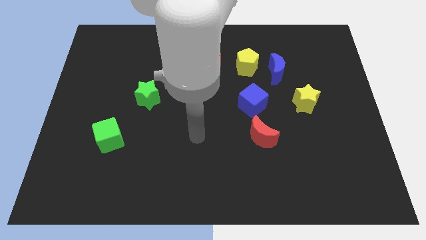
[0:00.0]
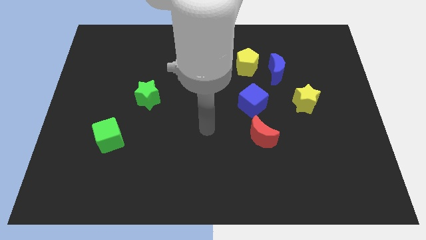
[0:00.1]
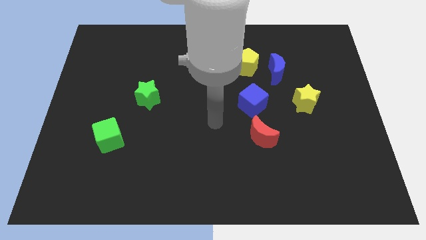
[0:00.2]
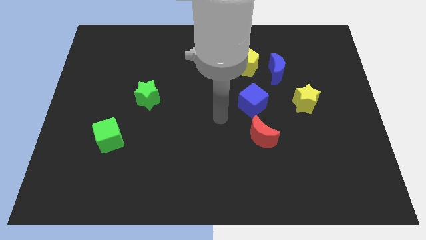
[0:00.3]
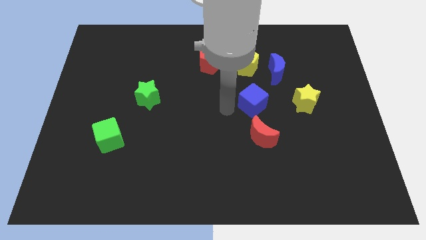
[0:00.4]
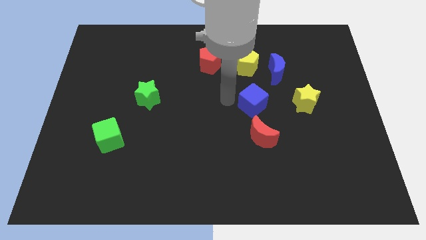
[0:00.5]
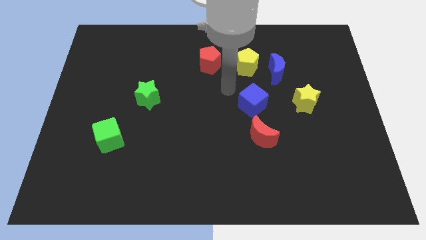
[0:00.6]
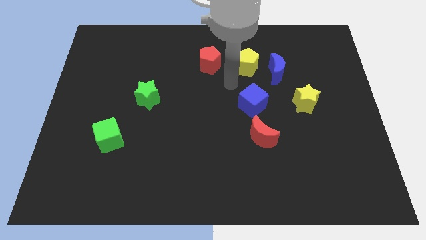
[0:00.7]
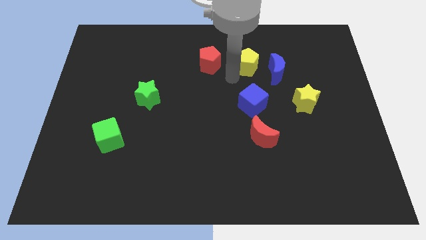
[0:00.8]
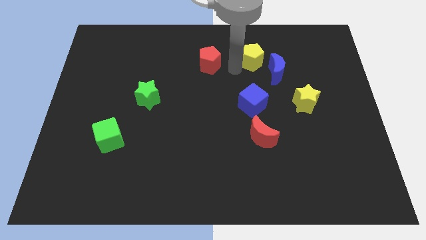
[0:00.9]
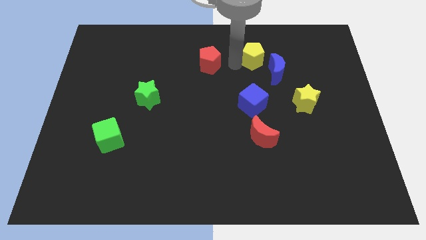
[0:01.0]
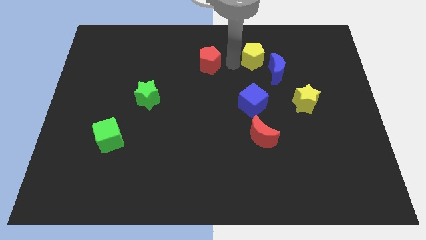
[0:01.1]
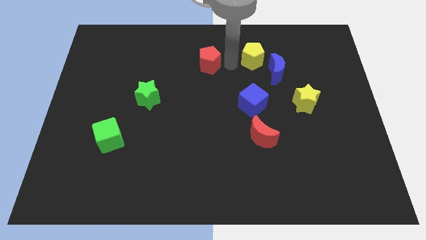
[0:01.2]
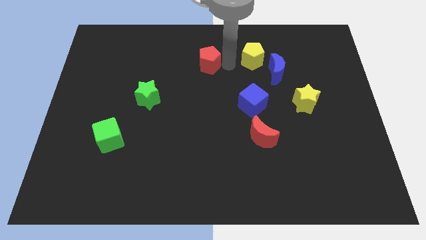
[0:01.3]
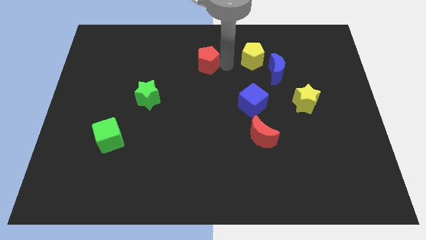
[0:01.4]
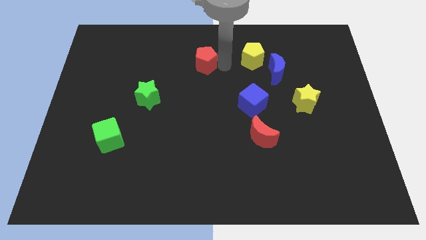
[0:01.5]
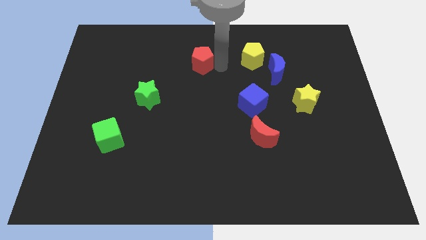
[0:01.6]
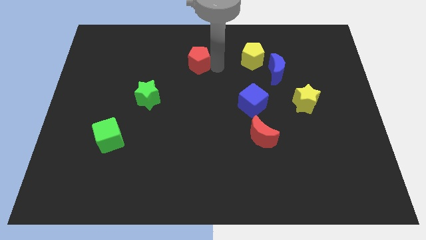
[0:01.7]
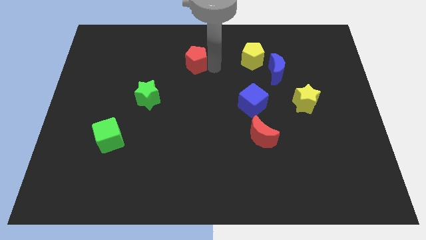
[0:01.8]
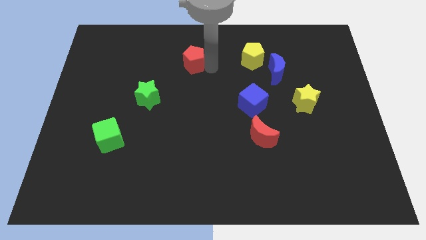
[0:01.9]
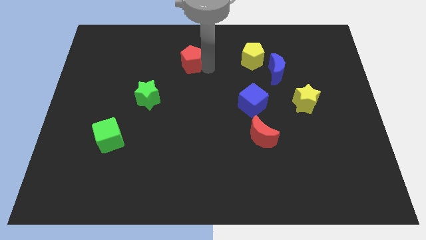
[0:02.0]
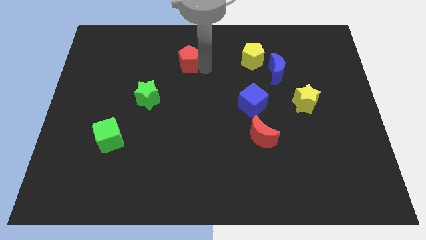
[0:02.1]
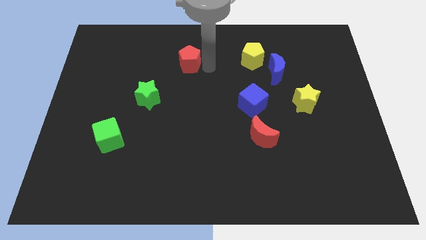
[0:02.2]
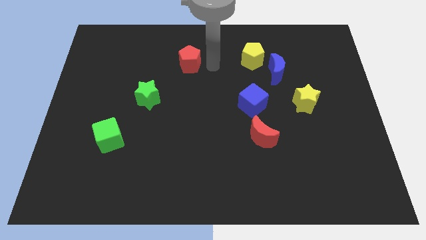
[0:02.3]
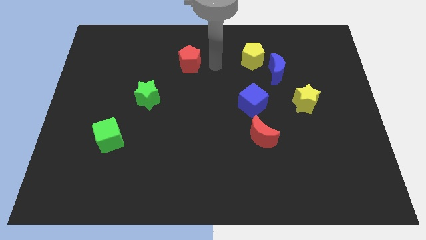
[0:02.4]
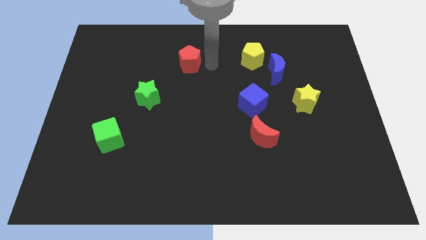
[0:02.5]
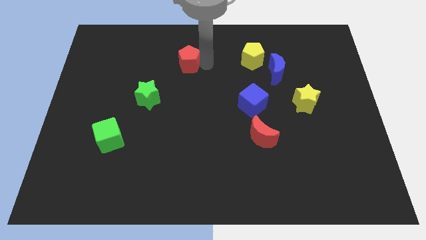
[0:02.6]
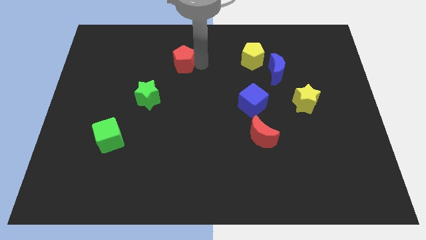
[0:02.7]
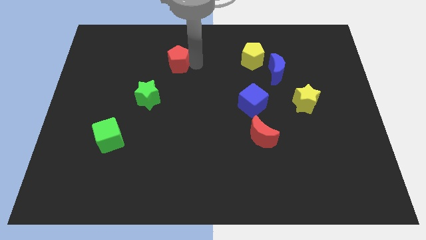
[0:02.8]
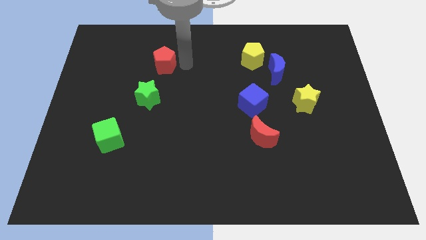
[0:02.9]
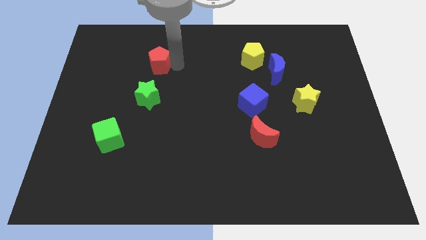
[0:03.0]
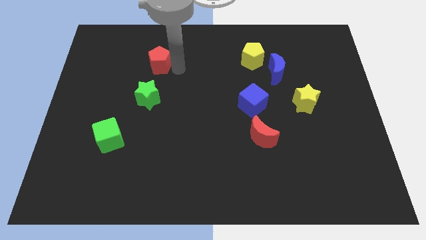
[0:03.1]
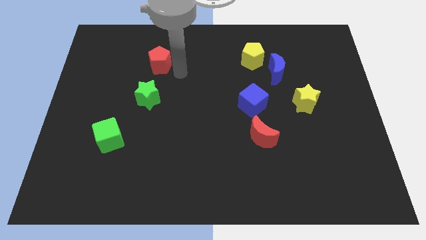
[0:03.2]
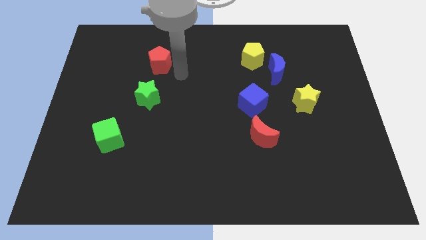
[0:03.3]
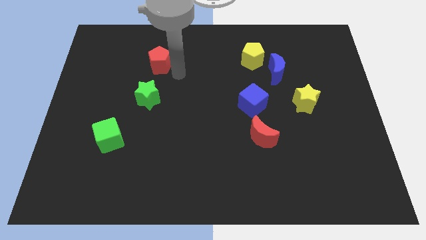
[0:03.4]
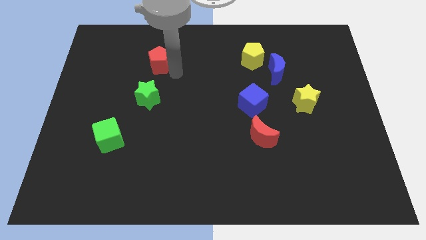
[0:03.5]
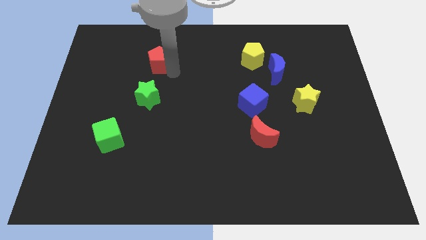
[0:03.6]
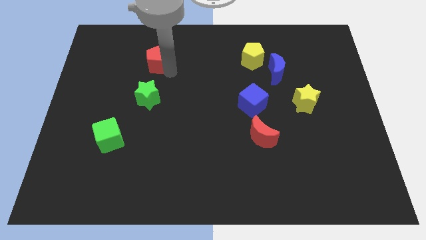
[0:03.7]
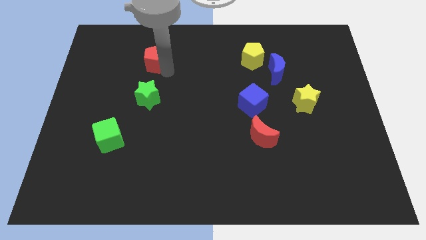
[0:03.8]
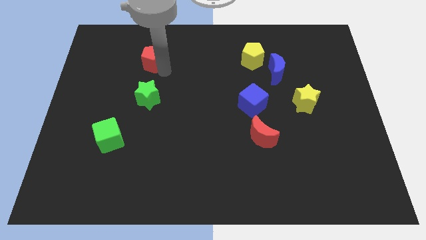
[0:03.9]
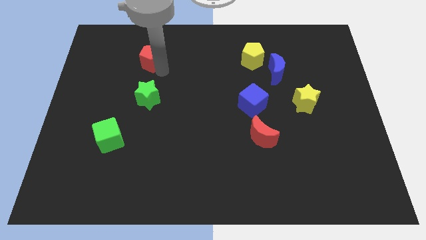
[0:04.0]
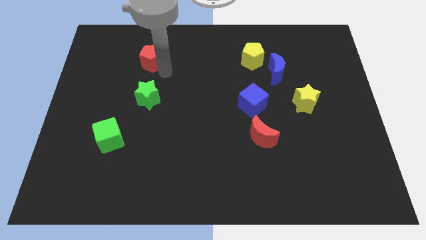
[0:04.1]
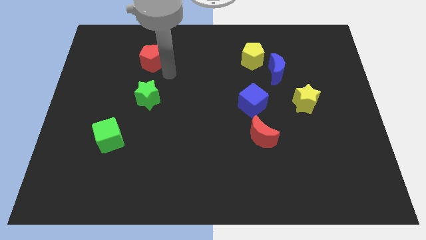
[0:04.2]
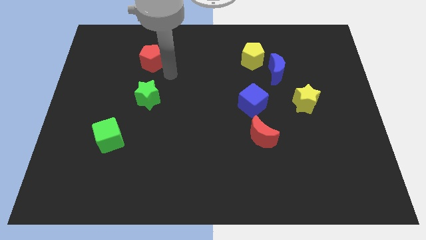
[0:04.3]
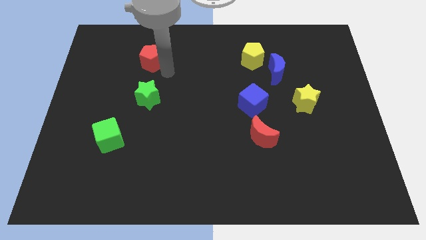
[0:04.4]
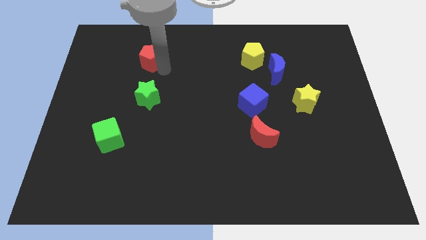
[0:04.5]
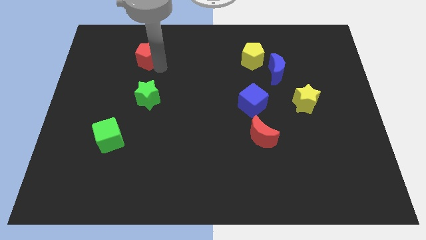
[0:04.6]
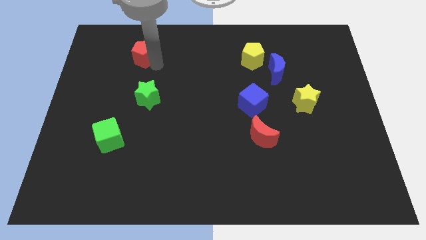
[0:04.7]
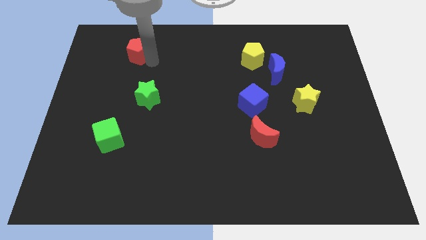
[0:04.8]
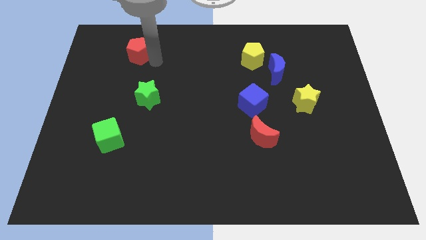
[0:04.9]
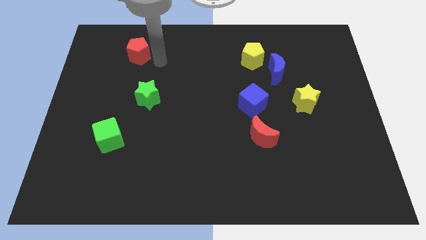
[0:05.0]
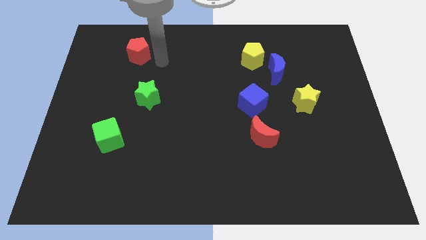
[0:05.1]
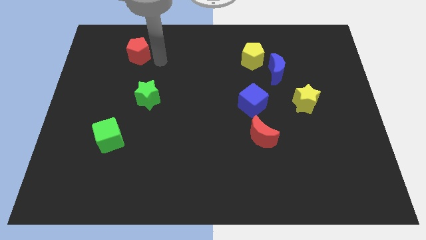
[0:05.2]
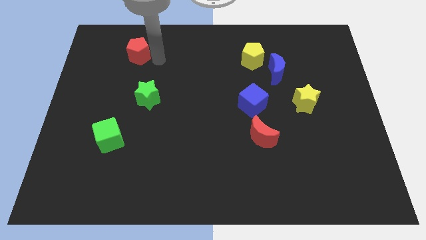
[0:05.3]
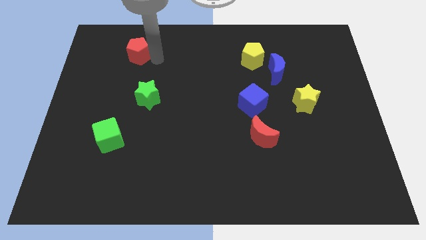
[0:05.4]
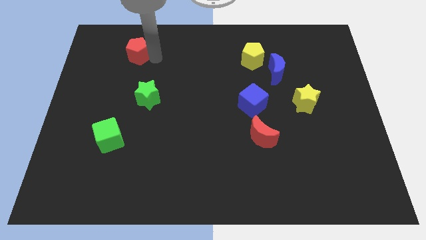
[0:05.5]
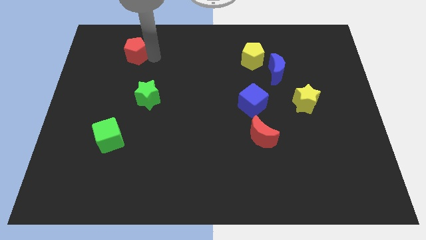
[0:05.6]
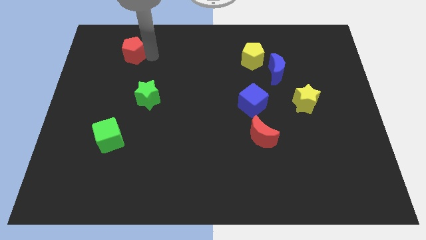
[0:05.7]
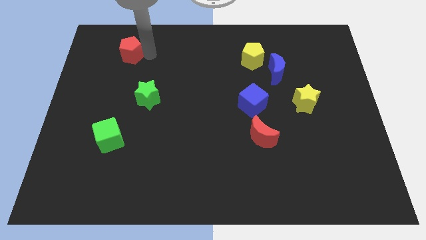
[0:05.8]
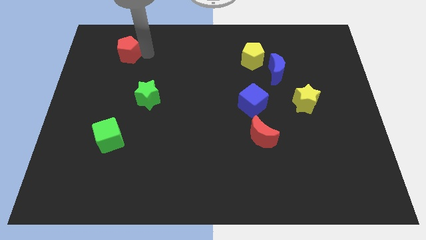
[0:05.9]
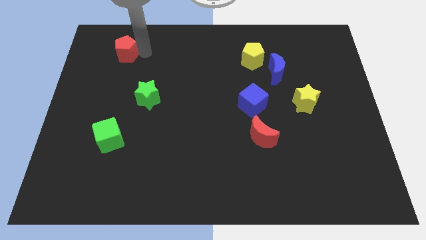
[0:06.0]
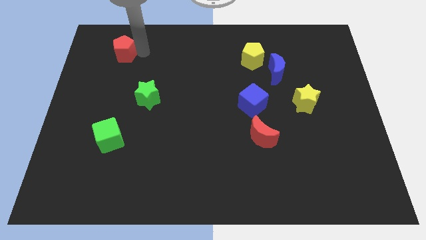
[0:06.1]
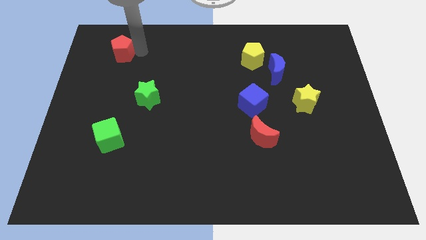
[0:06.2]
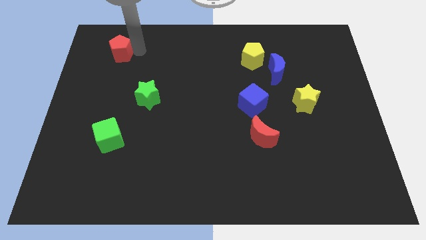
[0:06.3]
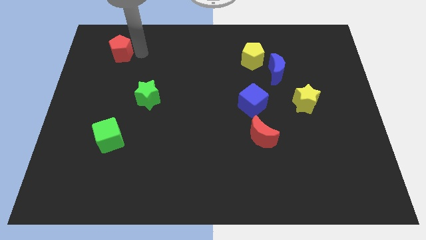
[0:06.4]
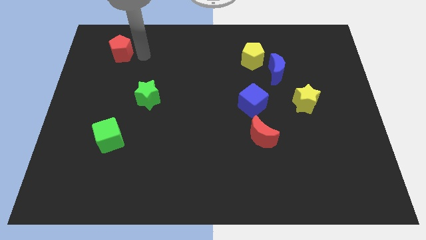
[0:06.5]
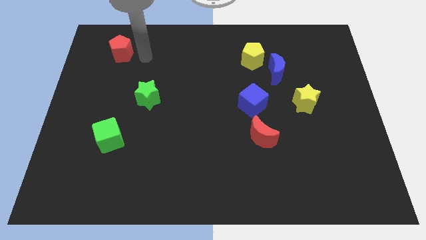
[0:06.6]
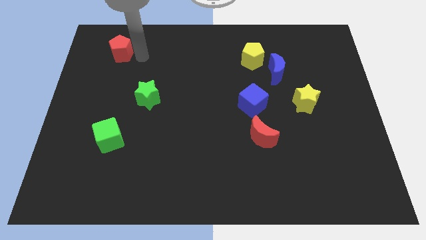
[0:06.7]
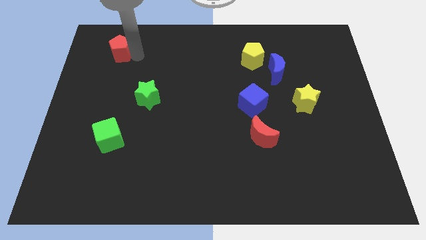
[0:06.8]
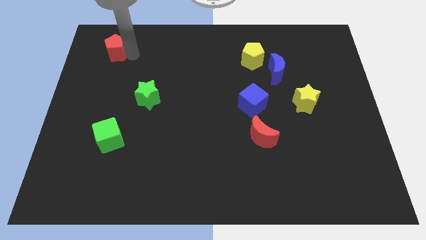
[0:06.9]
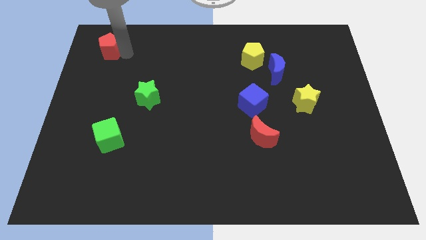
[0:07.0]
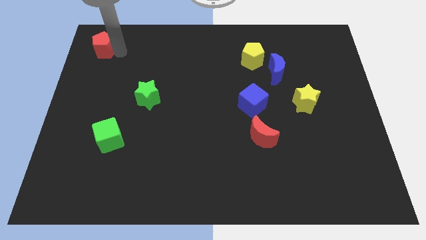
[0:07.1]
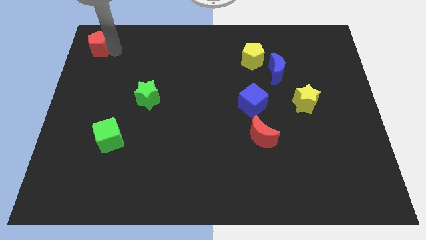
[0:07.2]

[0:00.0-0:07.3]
slide the red pentagon to the top left of the board
